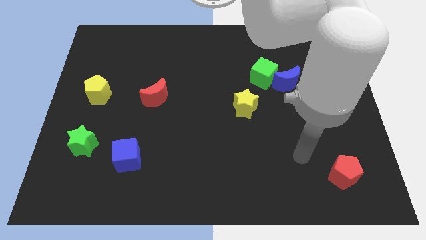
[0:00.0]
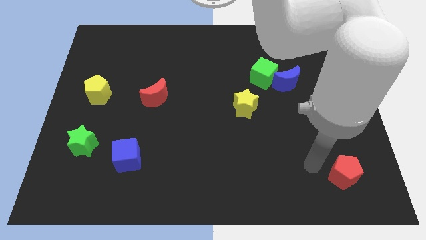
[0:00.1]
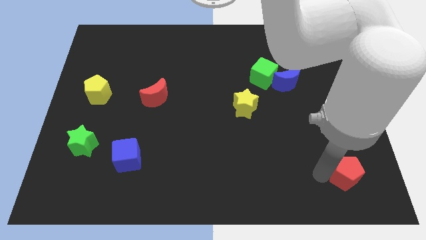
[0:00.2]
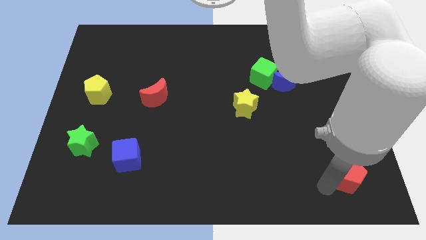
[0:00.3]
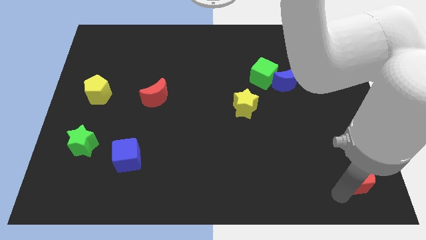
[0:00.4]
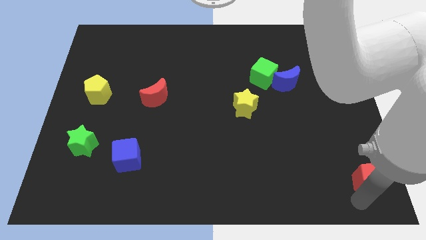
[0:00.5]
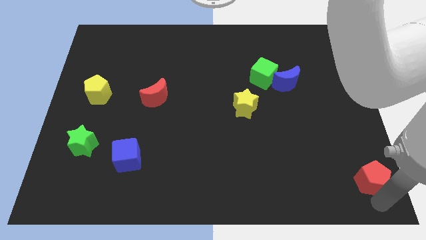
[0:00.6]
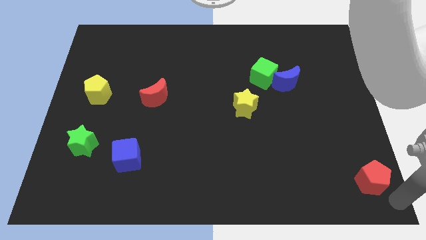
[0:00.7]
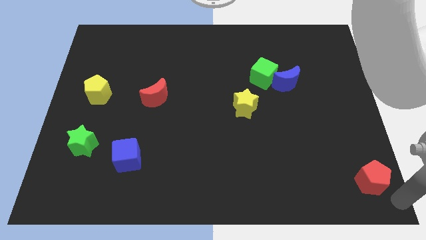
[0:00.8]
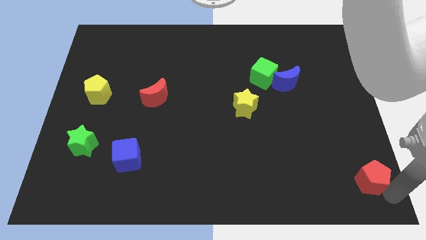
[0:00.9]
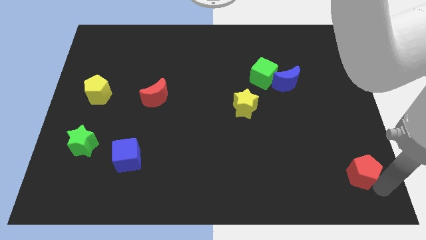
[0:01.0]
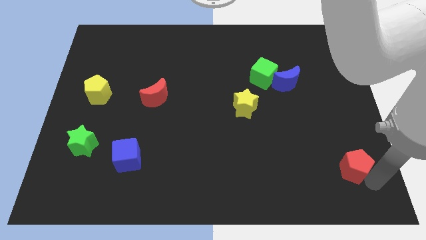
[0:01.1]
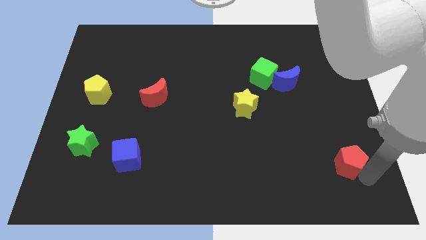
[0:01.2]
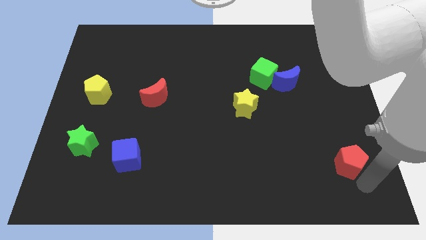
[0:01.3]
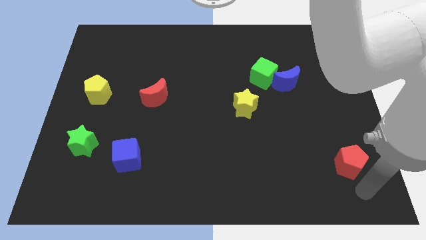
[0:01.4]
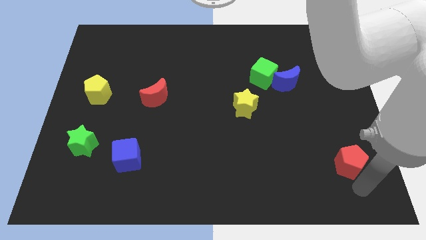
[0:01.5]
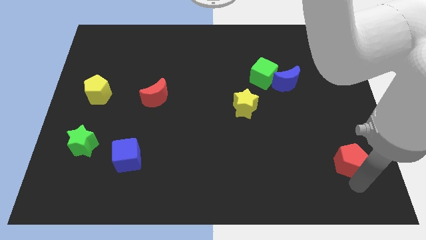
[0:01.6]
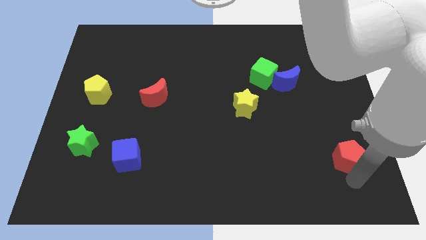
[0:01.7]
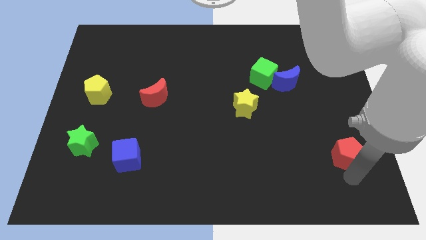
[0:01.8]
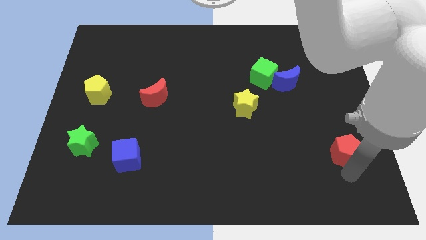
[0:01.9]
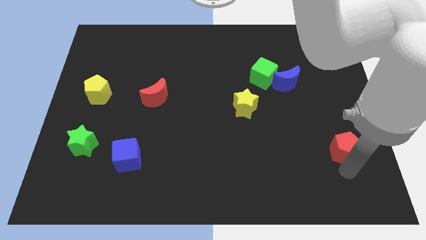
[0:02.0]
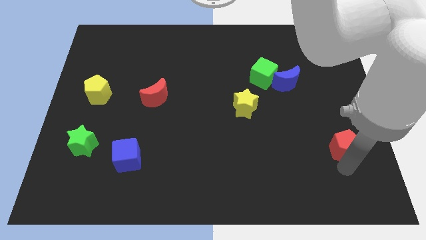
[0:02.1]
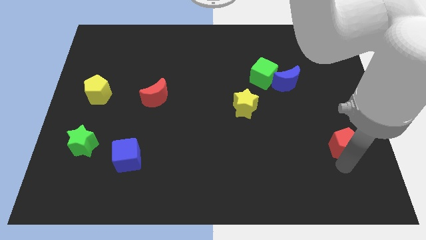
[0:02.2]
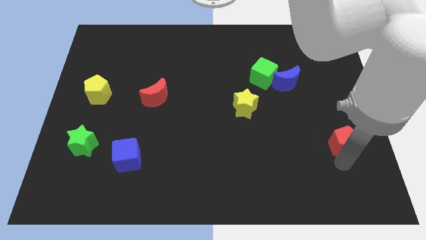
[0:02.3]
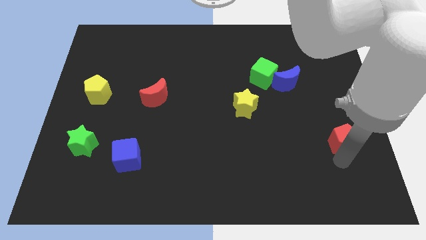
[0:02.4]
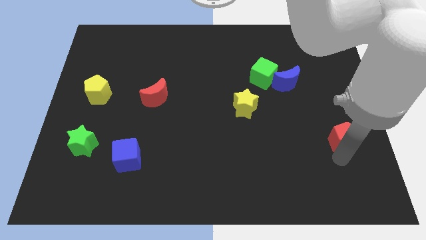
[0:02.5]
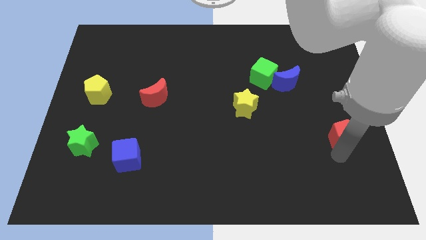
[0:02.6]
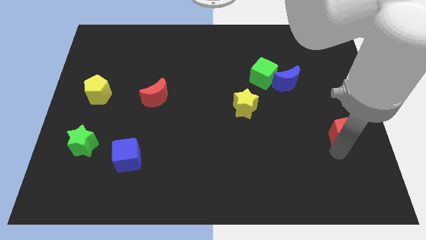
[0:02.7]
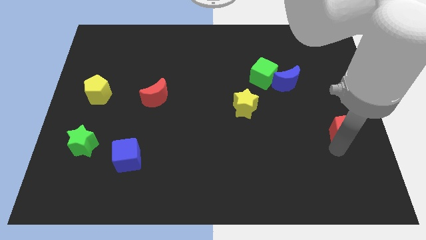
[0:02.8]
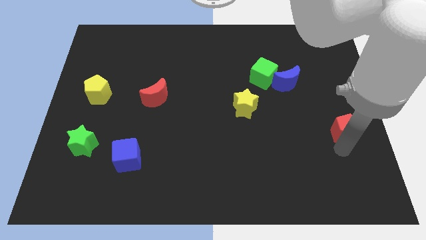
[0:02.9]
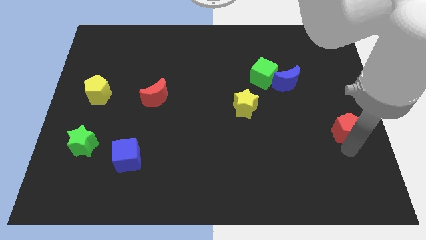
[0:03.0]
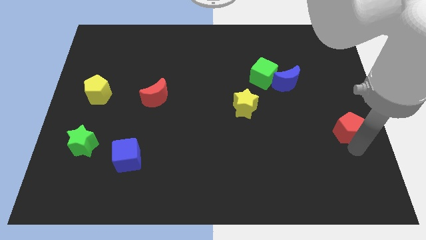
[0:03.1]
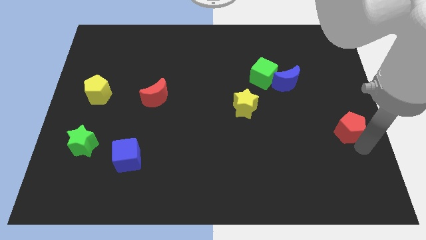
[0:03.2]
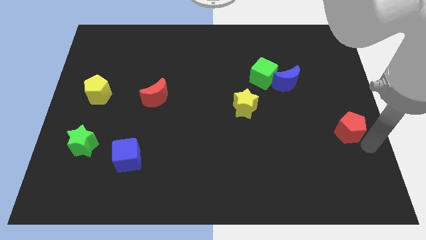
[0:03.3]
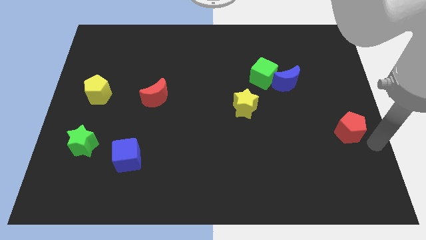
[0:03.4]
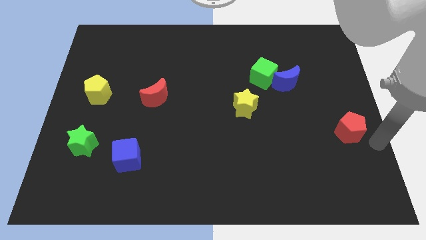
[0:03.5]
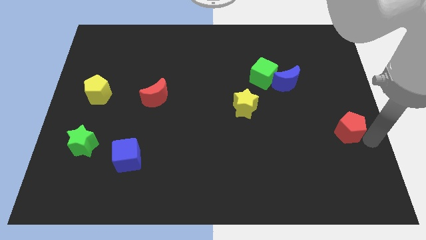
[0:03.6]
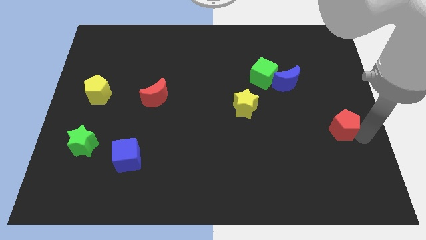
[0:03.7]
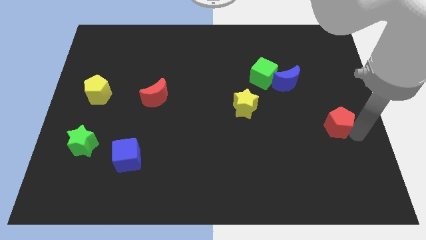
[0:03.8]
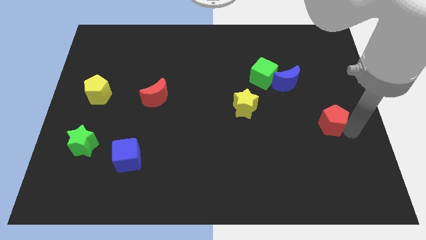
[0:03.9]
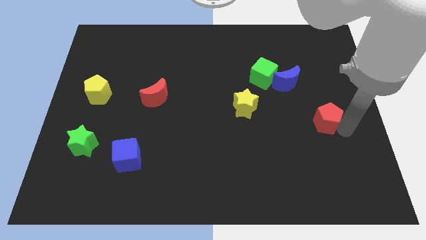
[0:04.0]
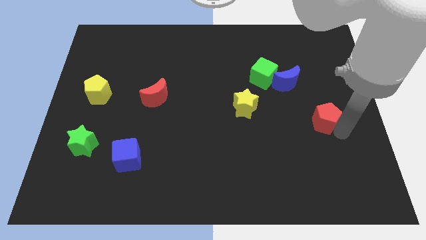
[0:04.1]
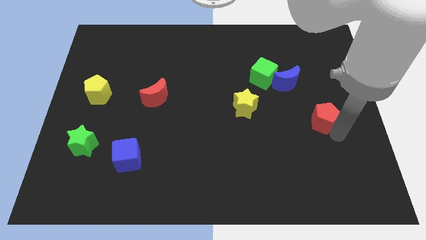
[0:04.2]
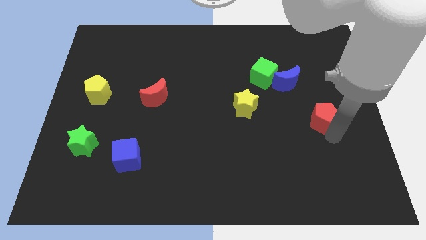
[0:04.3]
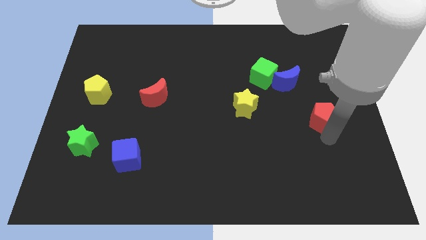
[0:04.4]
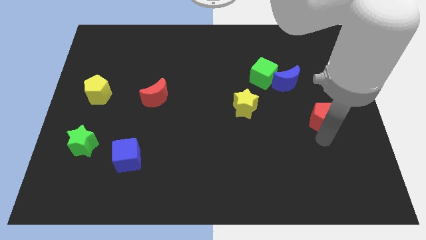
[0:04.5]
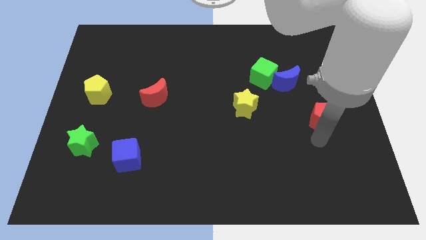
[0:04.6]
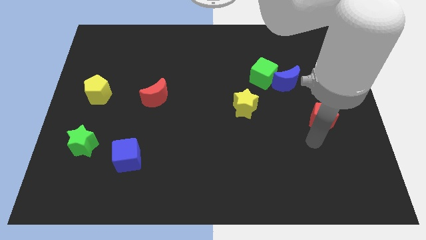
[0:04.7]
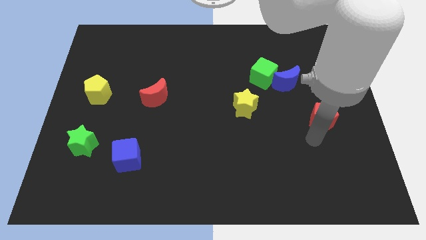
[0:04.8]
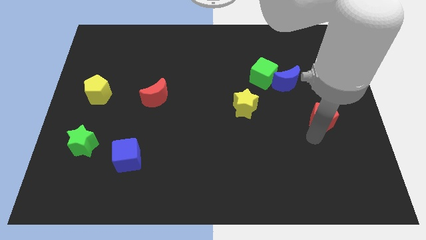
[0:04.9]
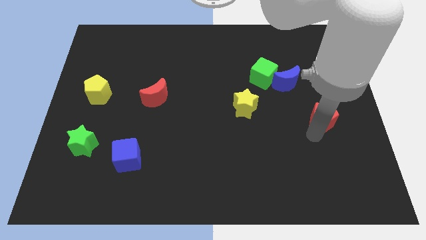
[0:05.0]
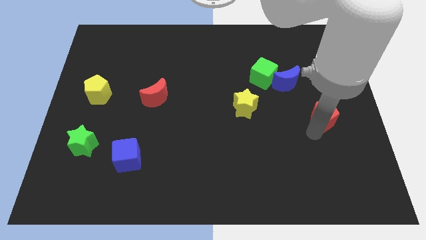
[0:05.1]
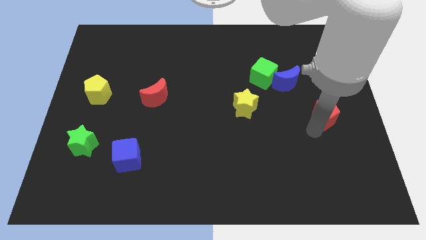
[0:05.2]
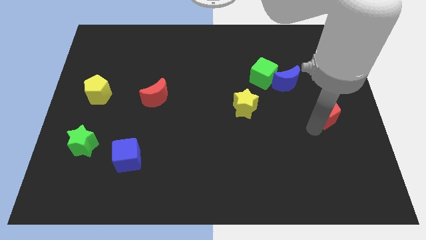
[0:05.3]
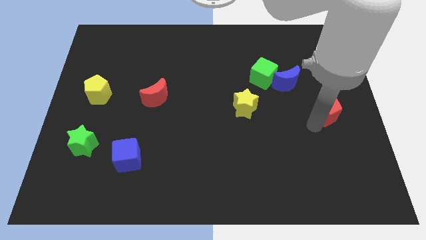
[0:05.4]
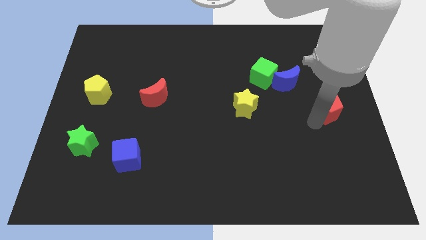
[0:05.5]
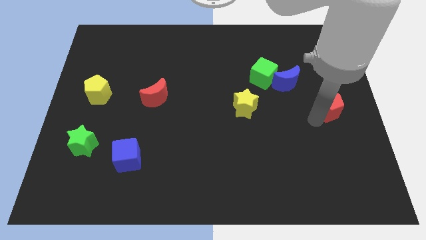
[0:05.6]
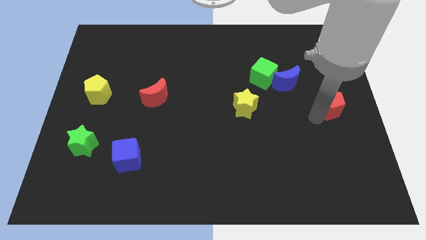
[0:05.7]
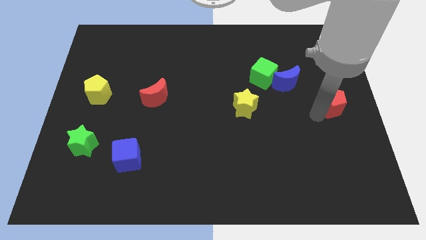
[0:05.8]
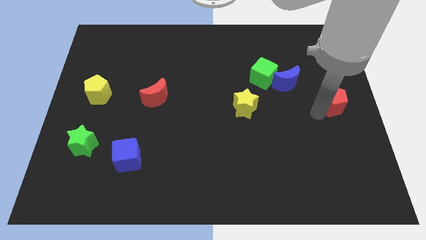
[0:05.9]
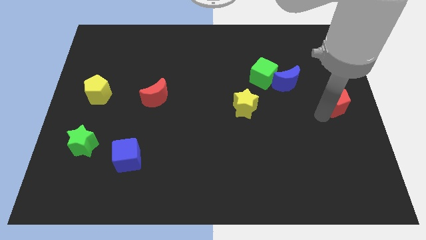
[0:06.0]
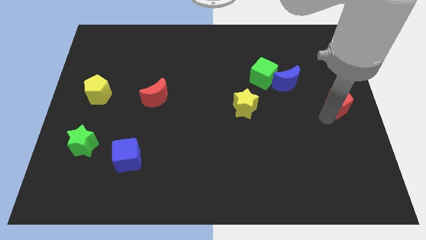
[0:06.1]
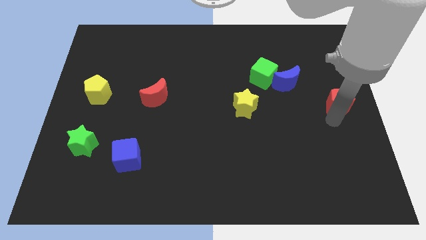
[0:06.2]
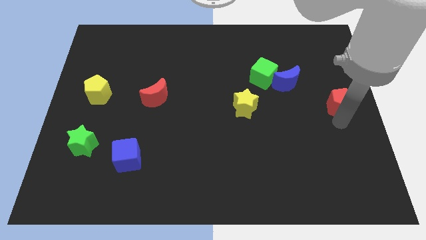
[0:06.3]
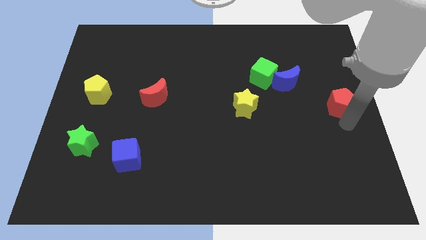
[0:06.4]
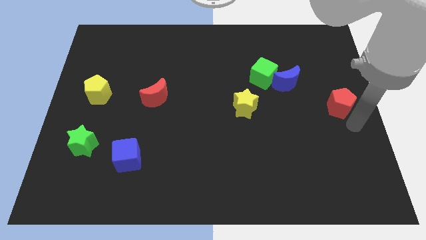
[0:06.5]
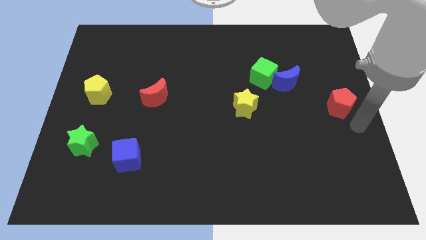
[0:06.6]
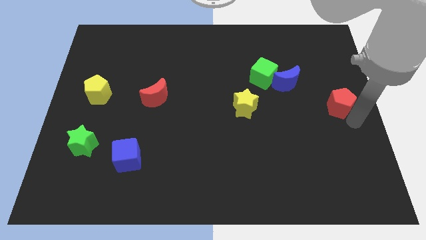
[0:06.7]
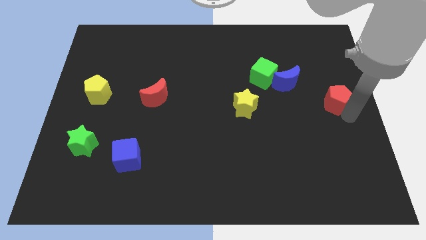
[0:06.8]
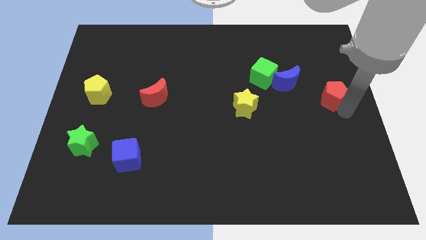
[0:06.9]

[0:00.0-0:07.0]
push the red pentagon upwards

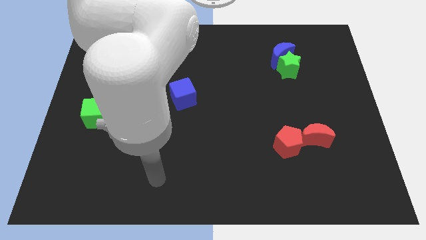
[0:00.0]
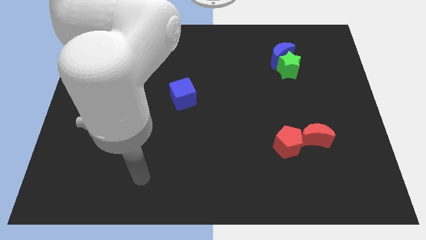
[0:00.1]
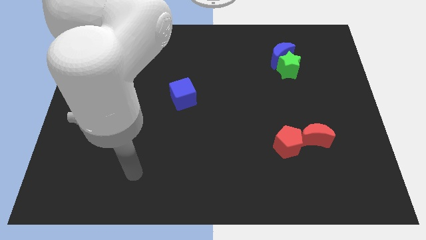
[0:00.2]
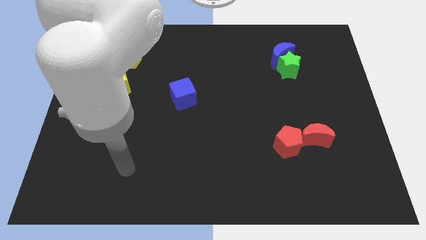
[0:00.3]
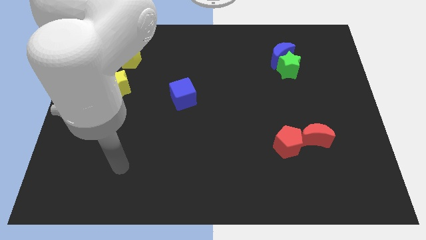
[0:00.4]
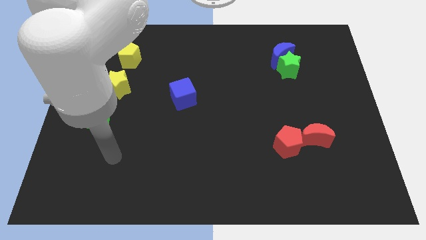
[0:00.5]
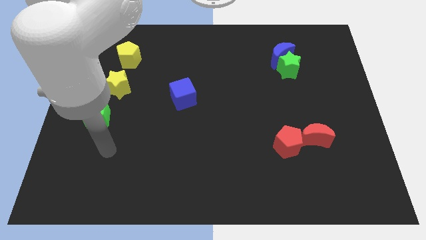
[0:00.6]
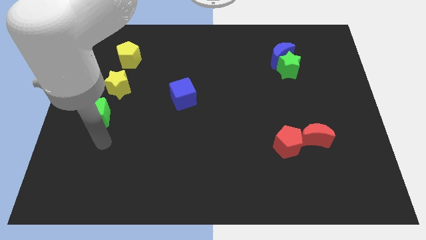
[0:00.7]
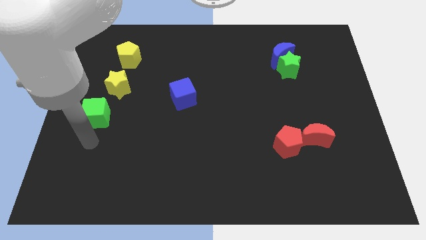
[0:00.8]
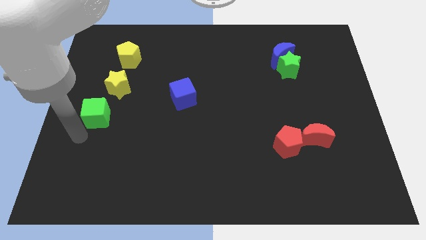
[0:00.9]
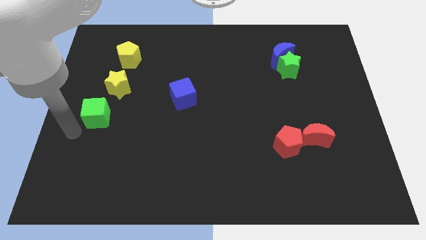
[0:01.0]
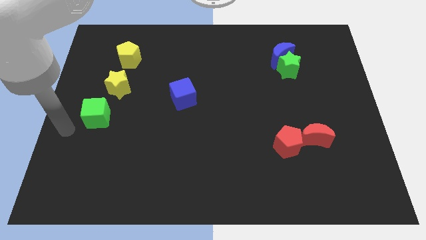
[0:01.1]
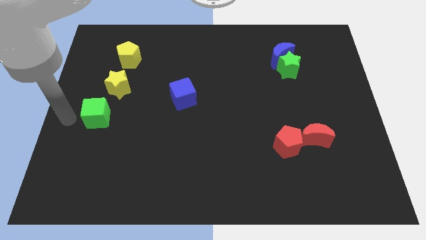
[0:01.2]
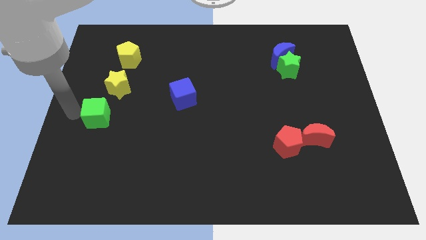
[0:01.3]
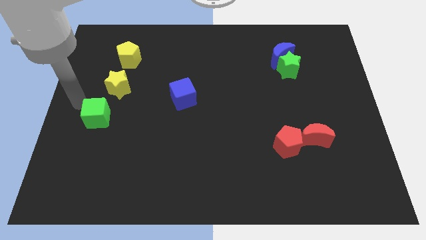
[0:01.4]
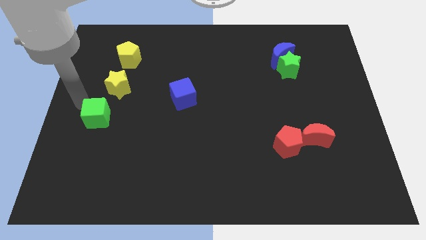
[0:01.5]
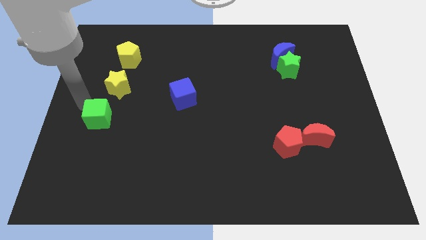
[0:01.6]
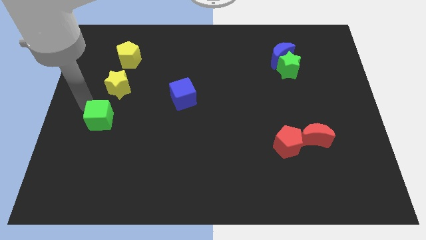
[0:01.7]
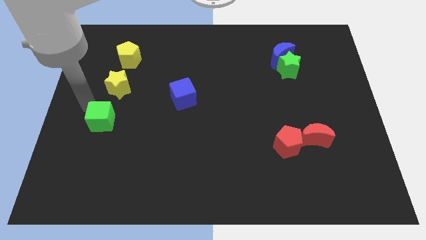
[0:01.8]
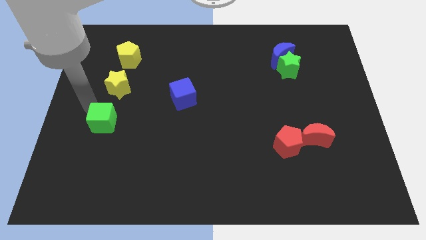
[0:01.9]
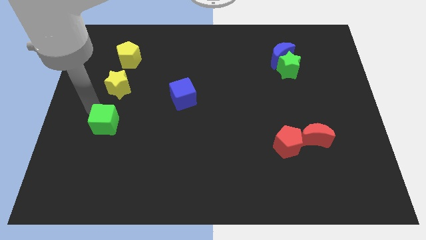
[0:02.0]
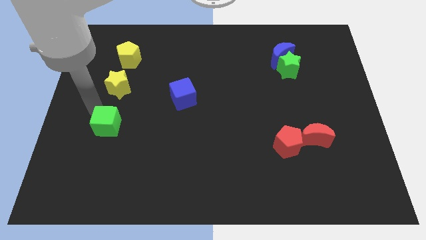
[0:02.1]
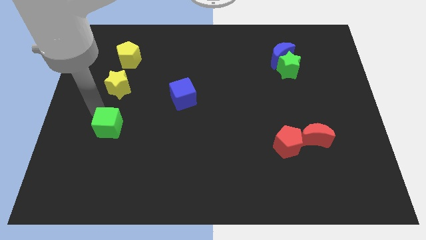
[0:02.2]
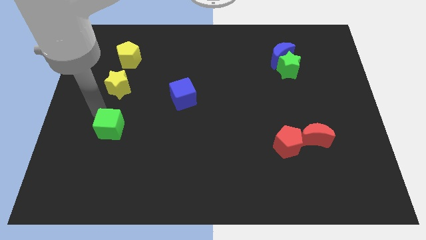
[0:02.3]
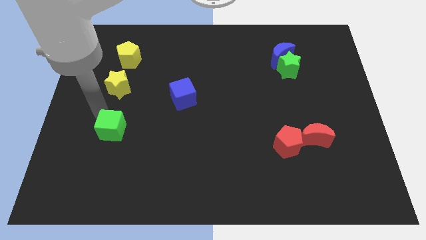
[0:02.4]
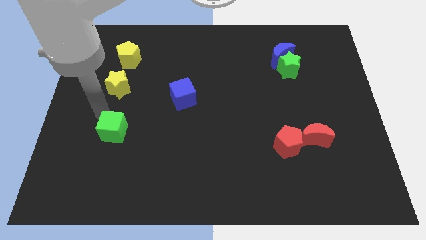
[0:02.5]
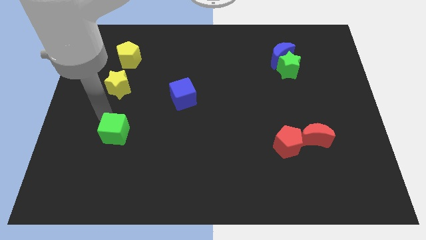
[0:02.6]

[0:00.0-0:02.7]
slightly slide the green cube downwards and to the right
